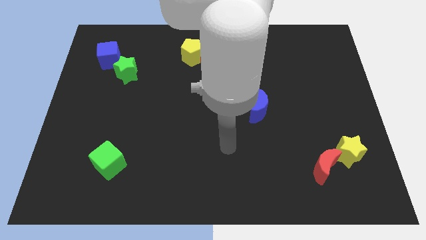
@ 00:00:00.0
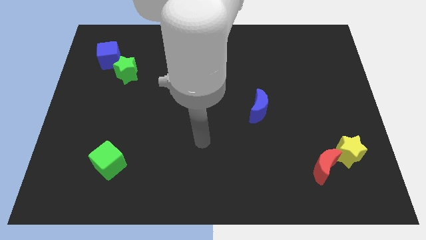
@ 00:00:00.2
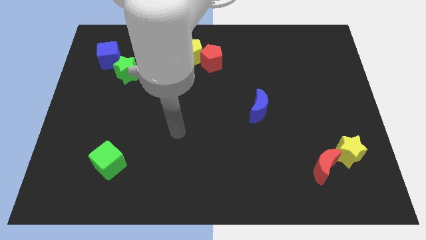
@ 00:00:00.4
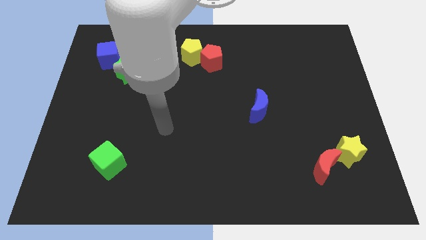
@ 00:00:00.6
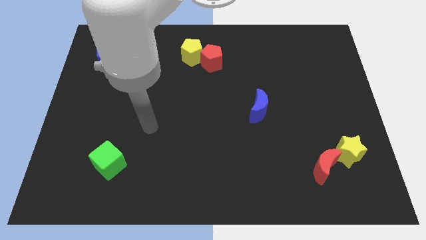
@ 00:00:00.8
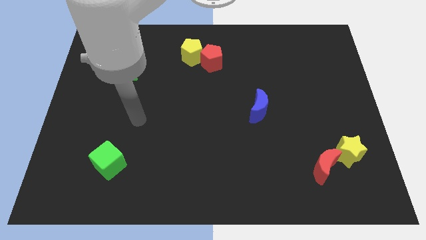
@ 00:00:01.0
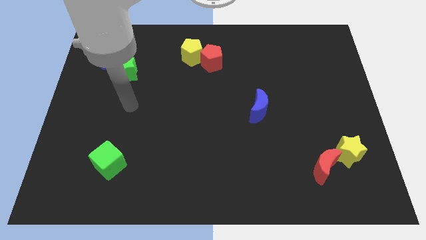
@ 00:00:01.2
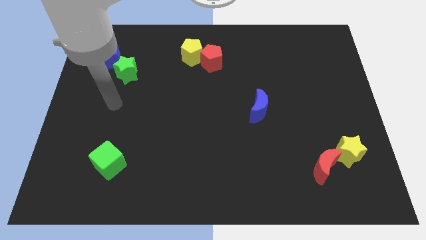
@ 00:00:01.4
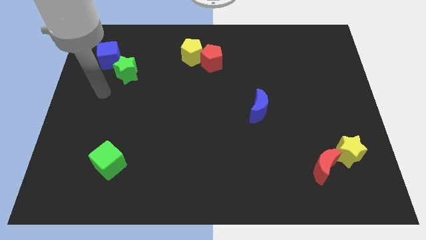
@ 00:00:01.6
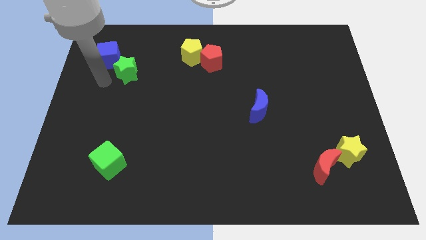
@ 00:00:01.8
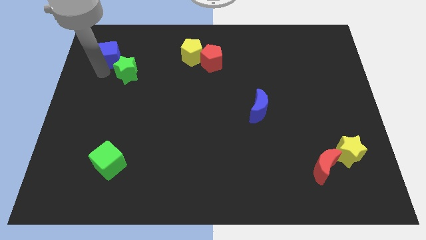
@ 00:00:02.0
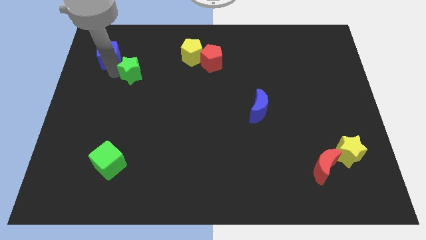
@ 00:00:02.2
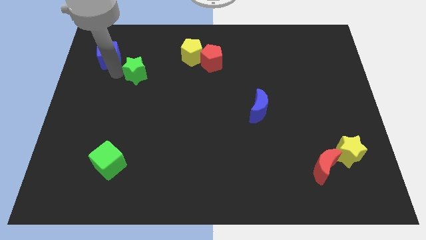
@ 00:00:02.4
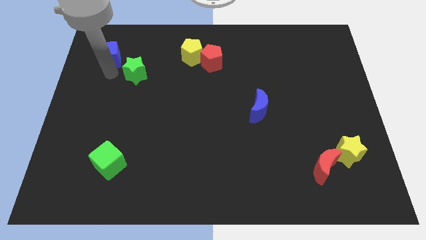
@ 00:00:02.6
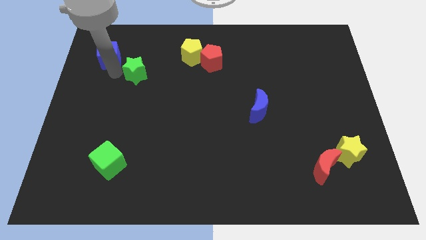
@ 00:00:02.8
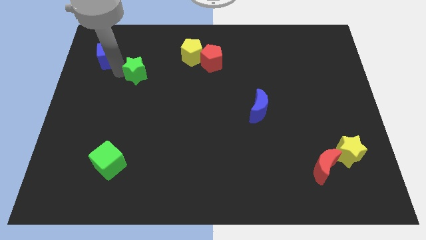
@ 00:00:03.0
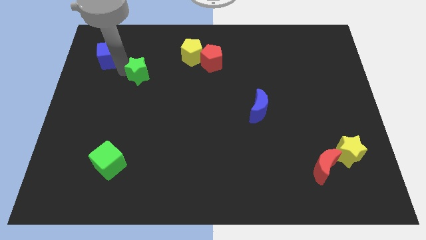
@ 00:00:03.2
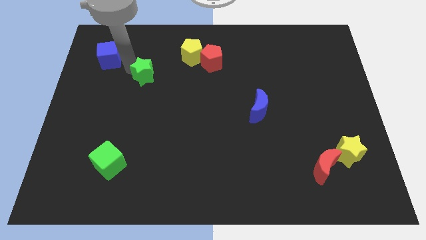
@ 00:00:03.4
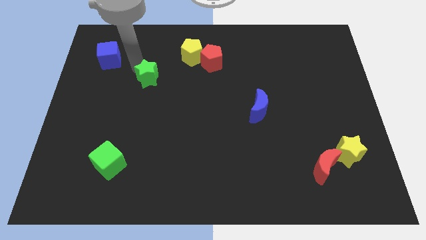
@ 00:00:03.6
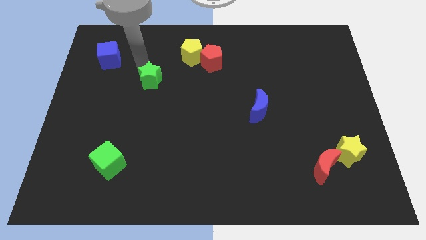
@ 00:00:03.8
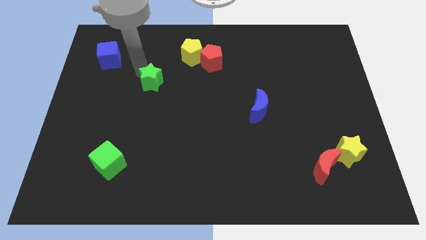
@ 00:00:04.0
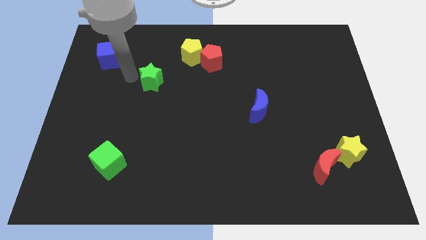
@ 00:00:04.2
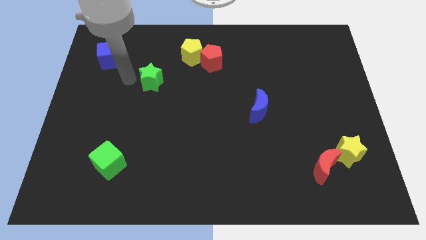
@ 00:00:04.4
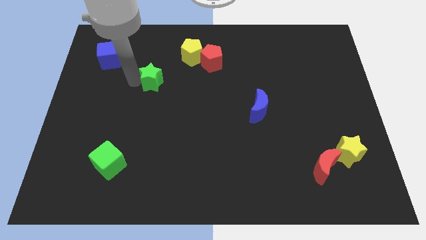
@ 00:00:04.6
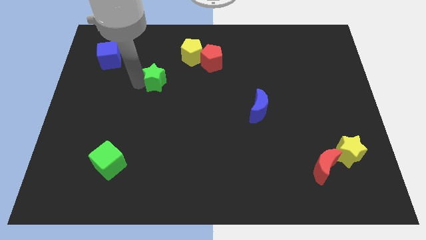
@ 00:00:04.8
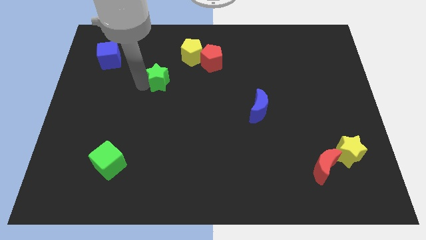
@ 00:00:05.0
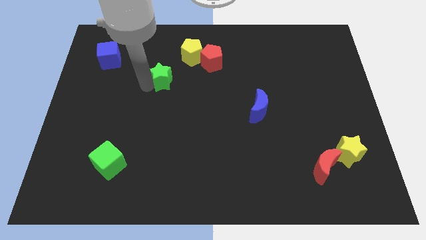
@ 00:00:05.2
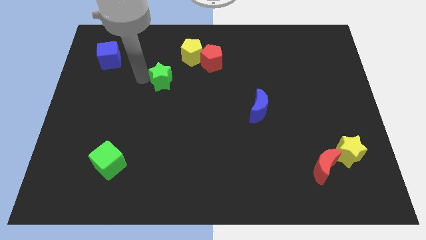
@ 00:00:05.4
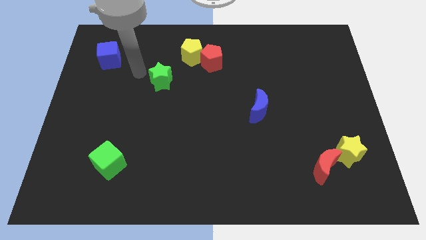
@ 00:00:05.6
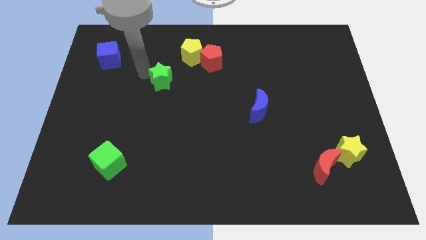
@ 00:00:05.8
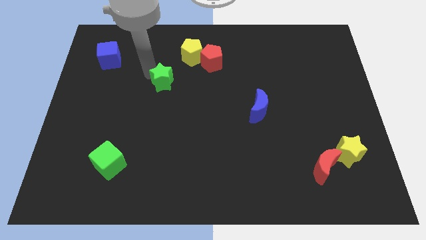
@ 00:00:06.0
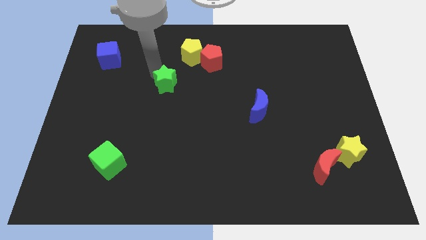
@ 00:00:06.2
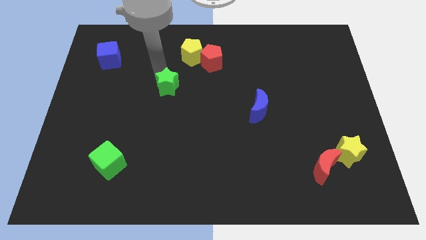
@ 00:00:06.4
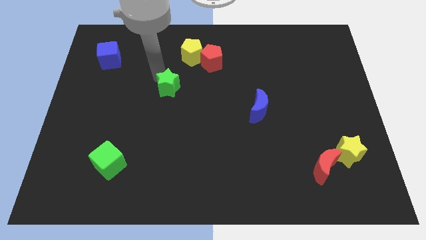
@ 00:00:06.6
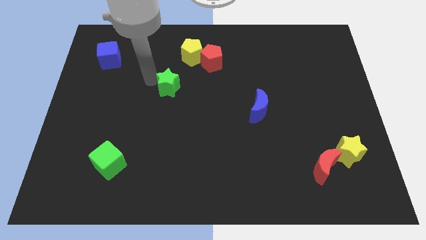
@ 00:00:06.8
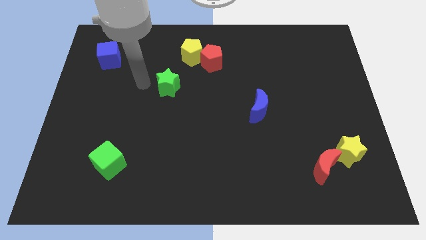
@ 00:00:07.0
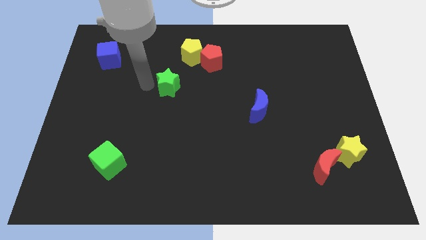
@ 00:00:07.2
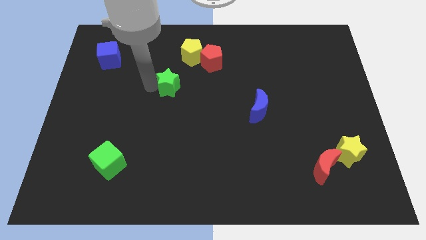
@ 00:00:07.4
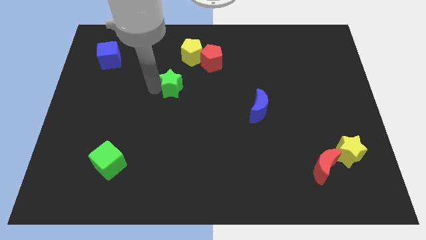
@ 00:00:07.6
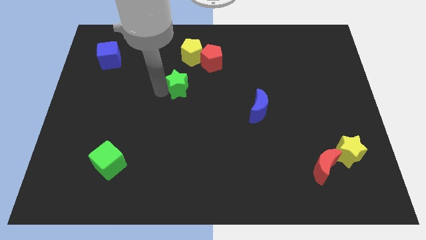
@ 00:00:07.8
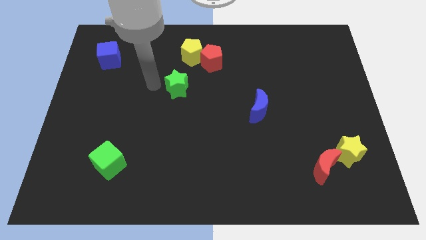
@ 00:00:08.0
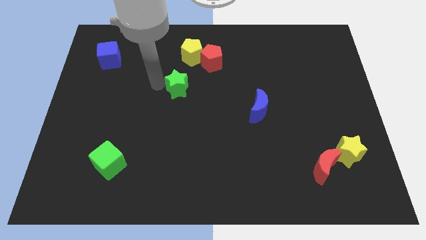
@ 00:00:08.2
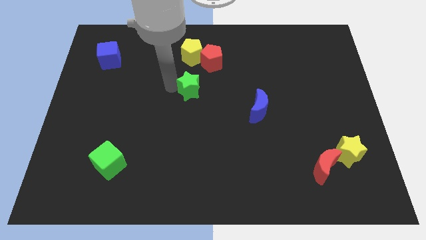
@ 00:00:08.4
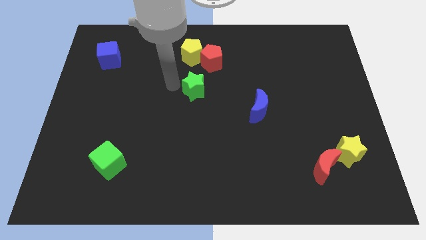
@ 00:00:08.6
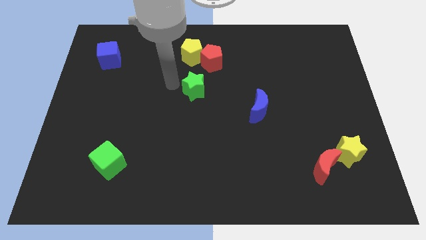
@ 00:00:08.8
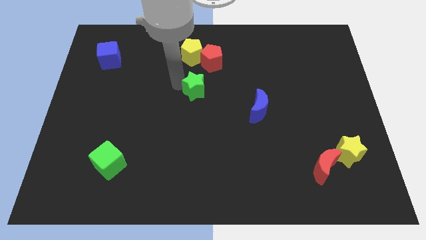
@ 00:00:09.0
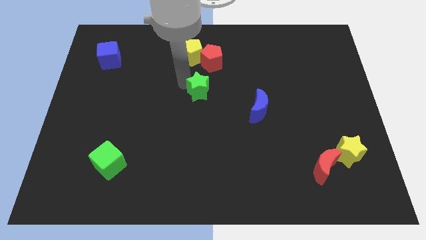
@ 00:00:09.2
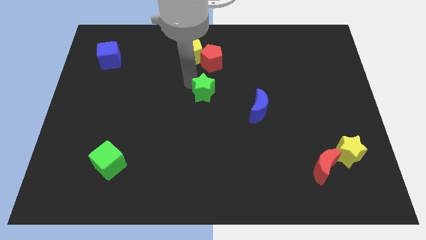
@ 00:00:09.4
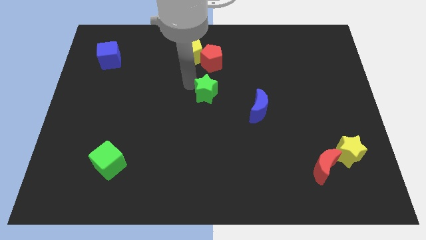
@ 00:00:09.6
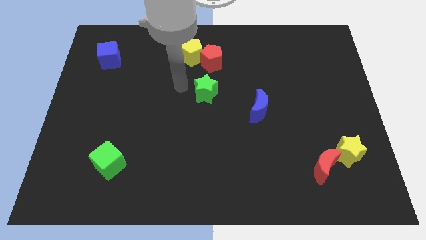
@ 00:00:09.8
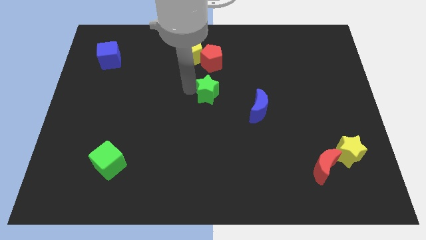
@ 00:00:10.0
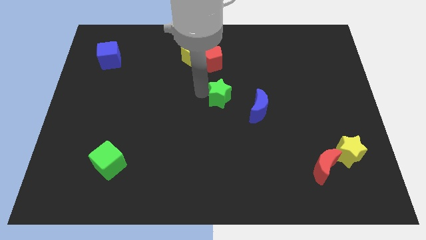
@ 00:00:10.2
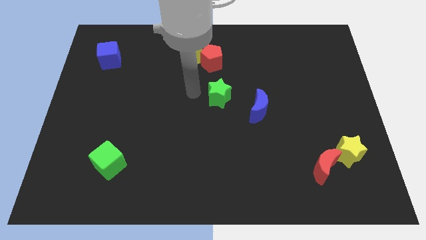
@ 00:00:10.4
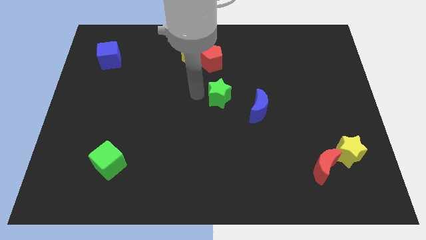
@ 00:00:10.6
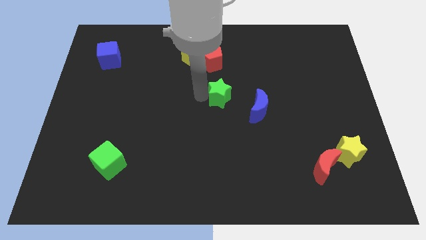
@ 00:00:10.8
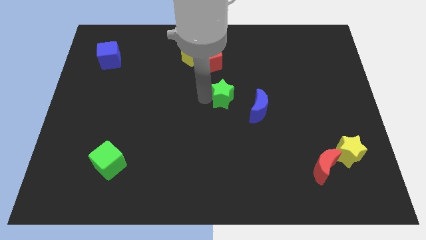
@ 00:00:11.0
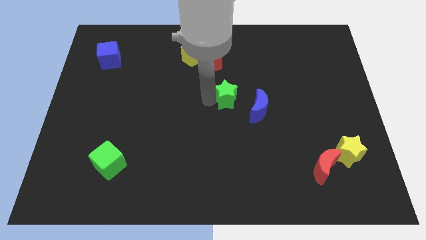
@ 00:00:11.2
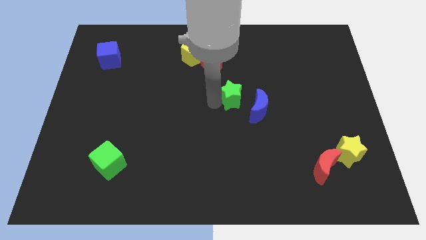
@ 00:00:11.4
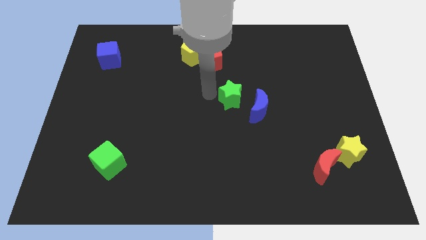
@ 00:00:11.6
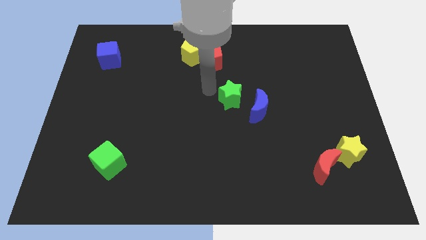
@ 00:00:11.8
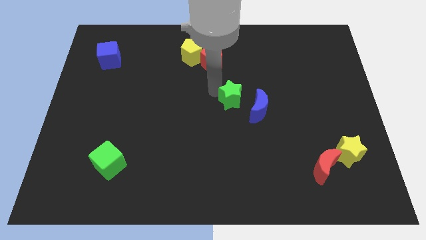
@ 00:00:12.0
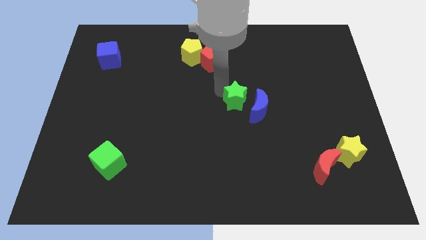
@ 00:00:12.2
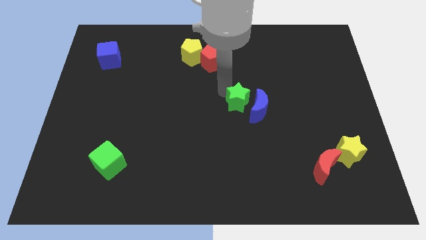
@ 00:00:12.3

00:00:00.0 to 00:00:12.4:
put the green star towards the blue moon

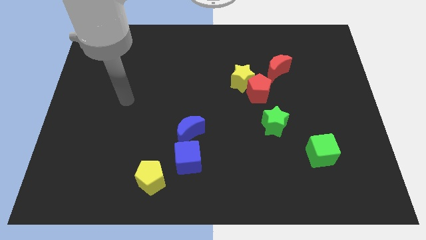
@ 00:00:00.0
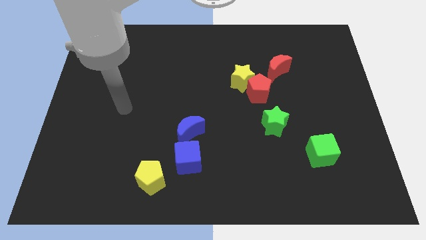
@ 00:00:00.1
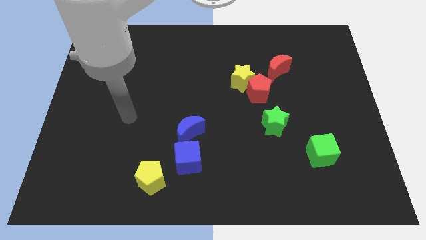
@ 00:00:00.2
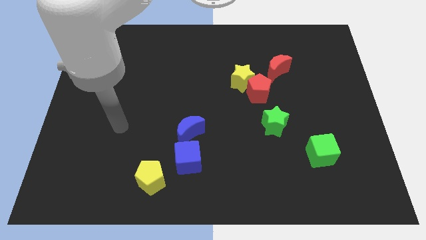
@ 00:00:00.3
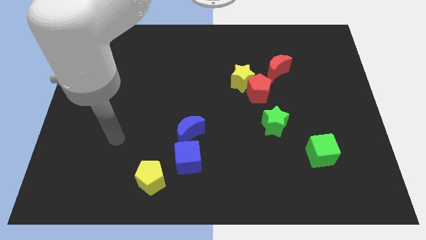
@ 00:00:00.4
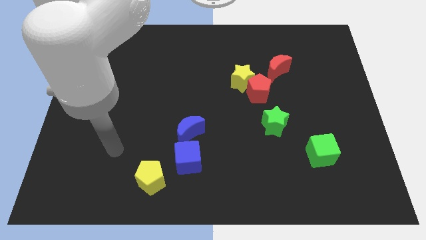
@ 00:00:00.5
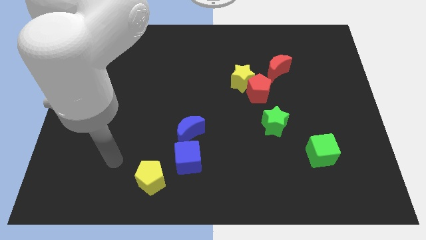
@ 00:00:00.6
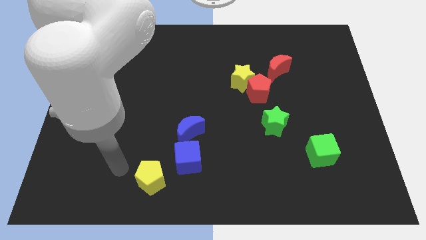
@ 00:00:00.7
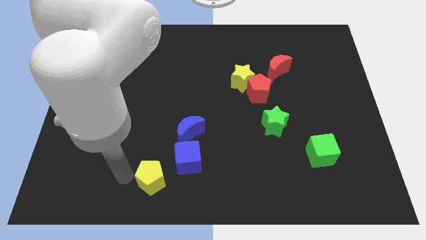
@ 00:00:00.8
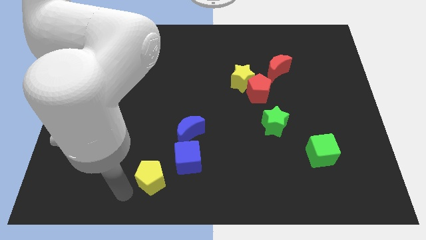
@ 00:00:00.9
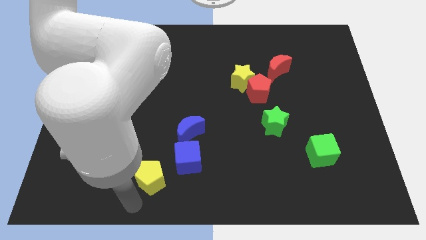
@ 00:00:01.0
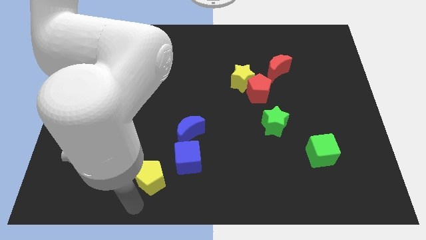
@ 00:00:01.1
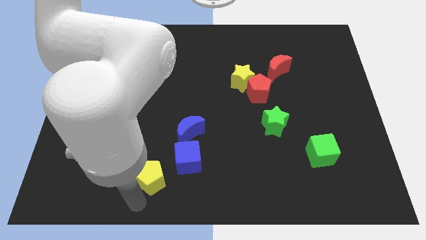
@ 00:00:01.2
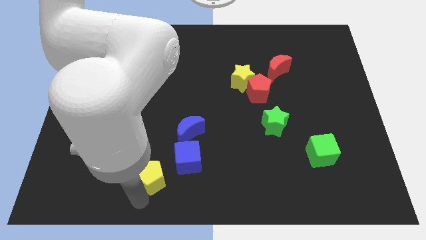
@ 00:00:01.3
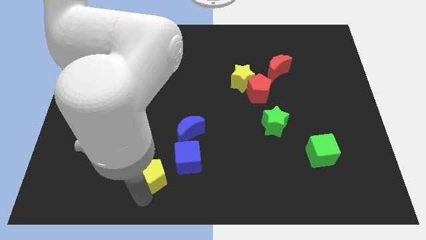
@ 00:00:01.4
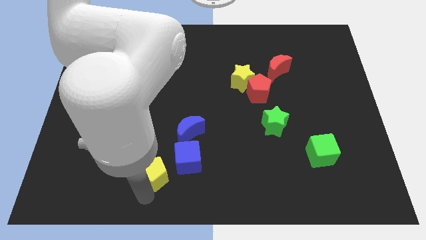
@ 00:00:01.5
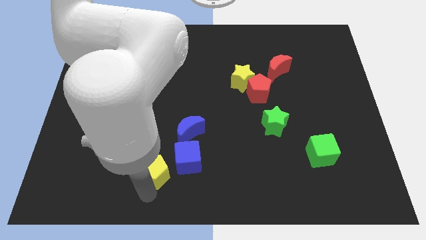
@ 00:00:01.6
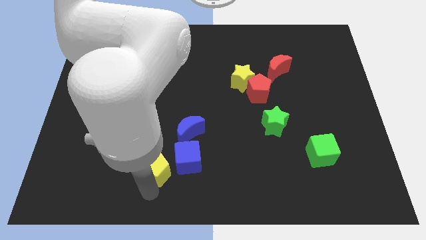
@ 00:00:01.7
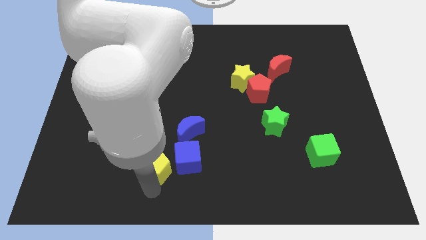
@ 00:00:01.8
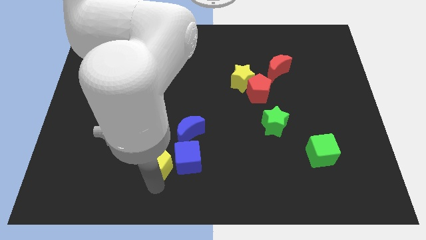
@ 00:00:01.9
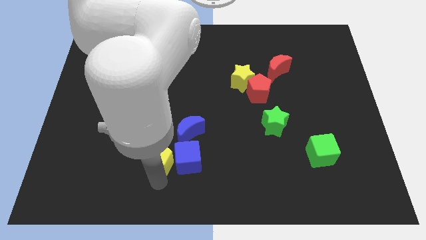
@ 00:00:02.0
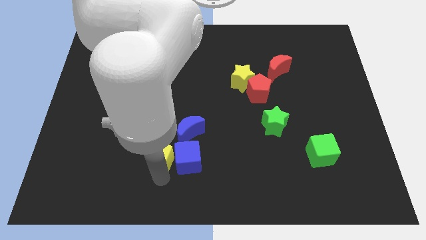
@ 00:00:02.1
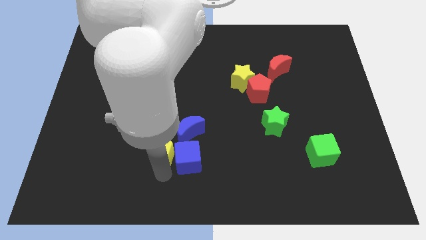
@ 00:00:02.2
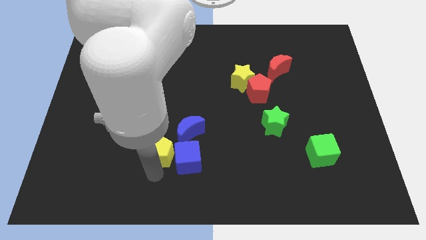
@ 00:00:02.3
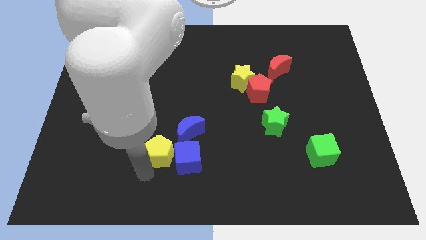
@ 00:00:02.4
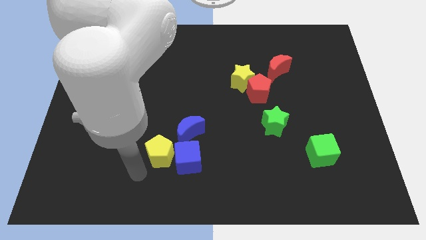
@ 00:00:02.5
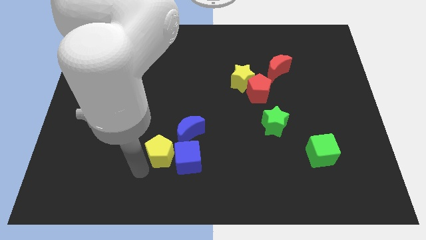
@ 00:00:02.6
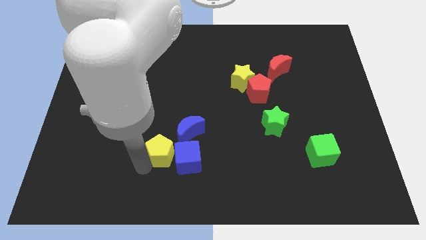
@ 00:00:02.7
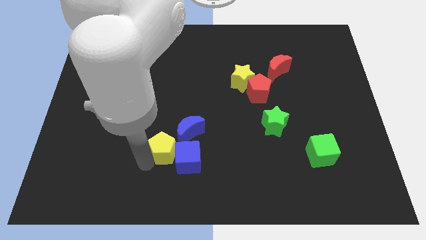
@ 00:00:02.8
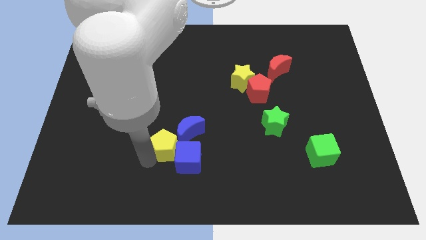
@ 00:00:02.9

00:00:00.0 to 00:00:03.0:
put the yellow pentagon to the blue moon
